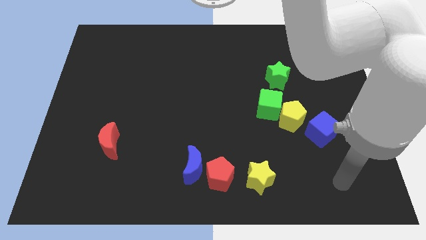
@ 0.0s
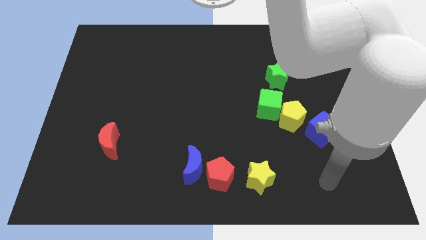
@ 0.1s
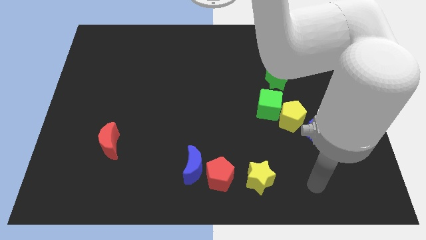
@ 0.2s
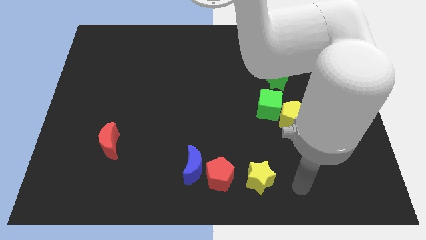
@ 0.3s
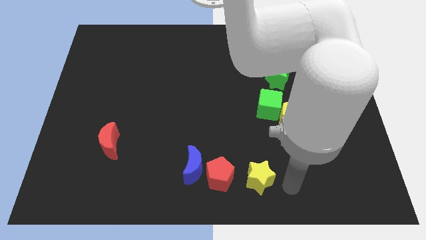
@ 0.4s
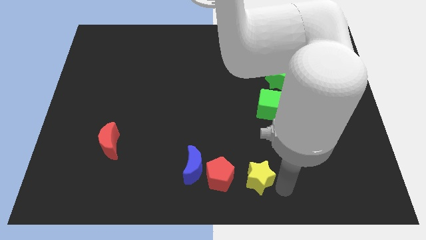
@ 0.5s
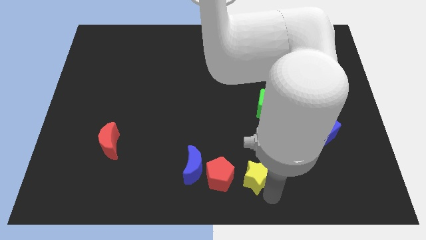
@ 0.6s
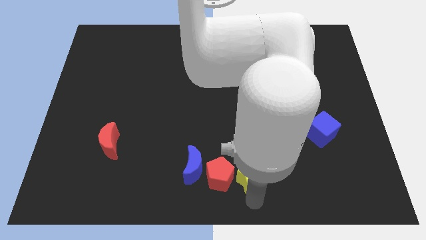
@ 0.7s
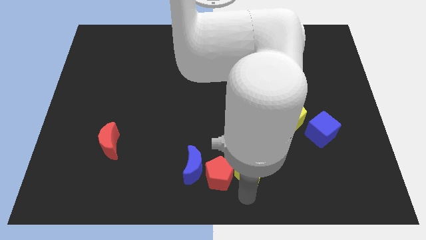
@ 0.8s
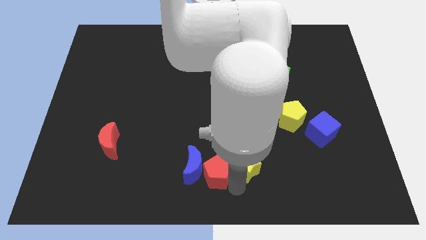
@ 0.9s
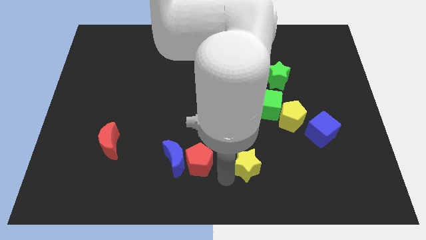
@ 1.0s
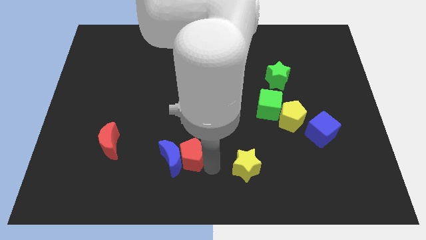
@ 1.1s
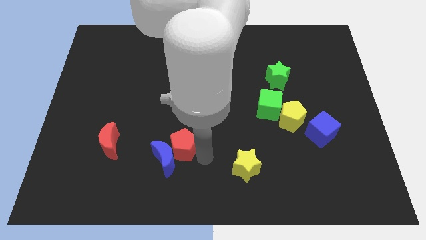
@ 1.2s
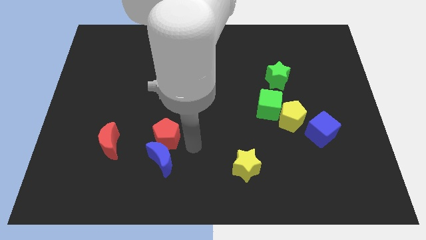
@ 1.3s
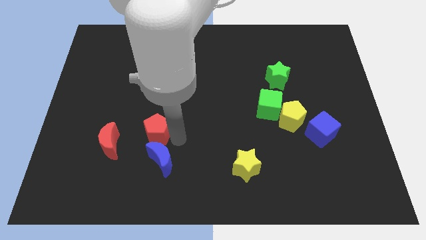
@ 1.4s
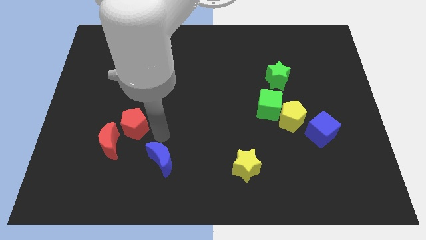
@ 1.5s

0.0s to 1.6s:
pull the blue moon apart from the red pentagon

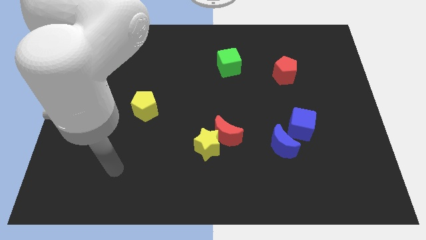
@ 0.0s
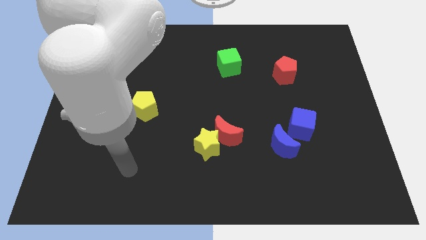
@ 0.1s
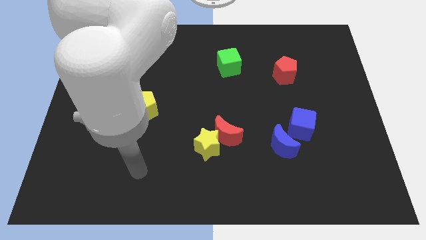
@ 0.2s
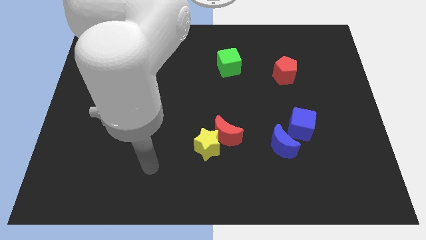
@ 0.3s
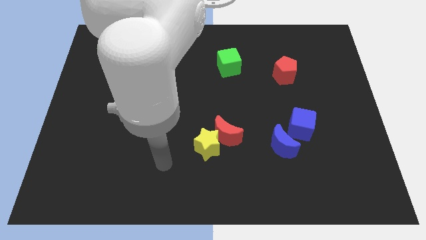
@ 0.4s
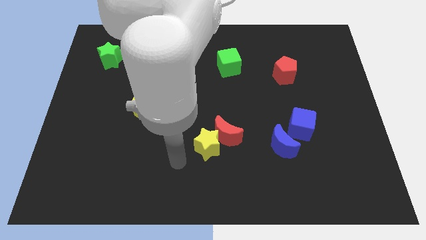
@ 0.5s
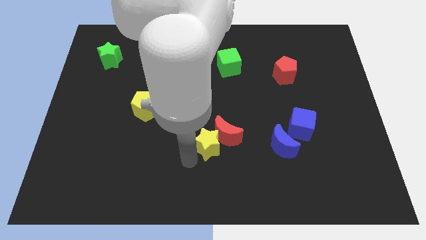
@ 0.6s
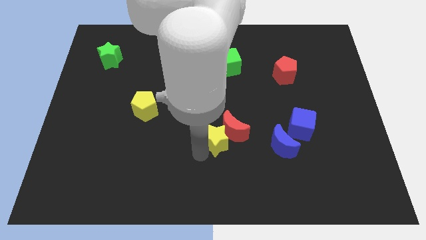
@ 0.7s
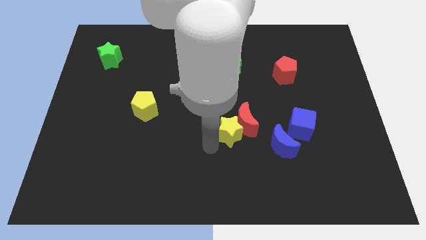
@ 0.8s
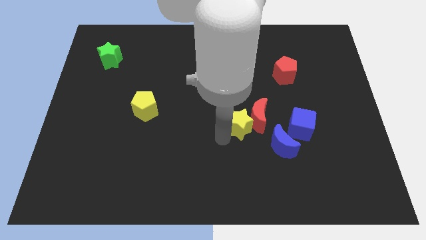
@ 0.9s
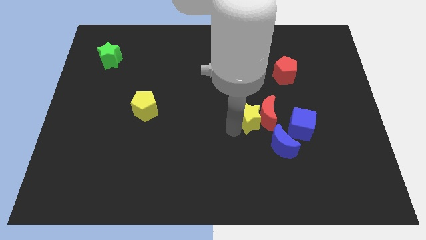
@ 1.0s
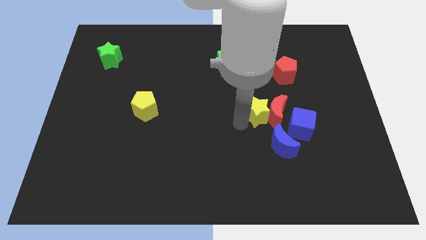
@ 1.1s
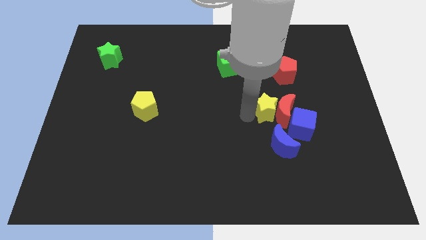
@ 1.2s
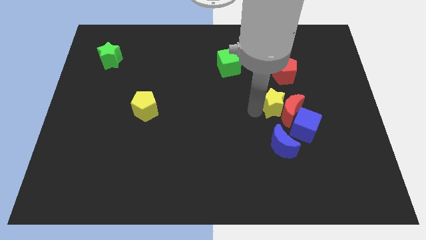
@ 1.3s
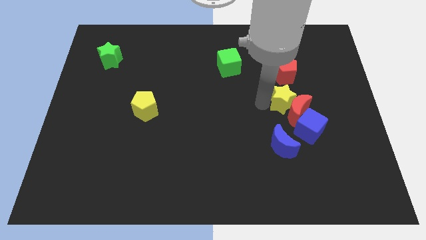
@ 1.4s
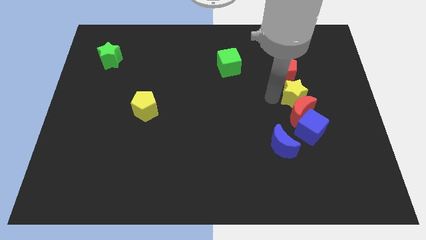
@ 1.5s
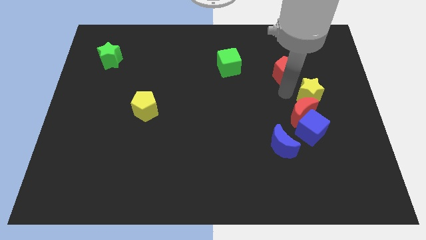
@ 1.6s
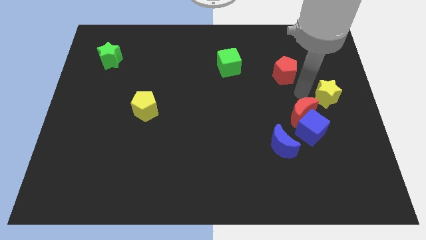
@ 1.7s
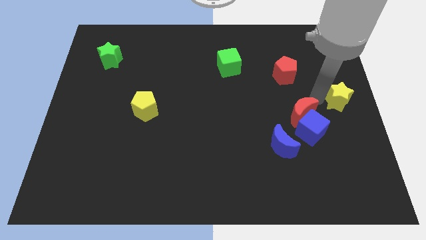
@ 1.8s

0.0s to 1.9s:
move the red moon away from the yellow star

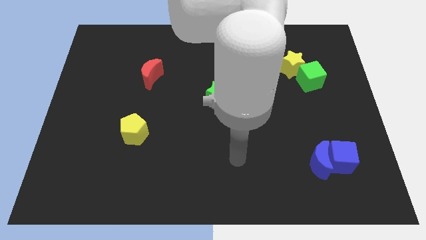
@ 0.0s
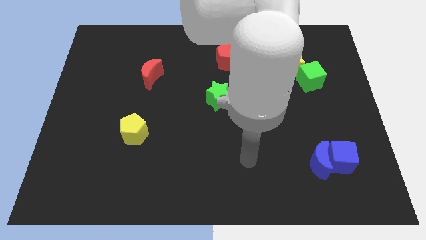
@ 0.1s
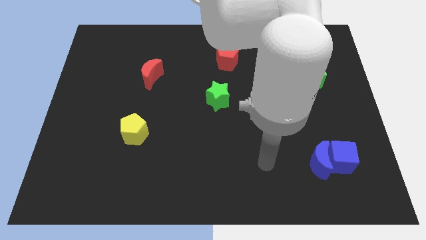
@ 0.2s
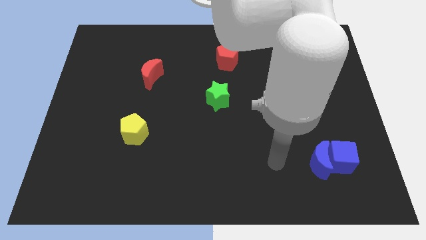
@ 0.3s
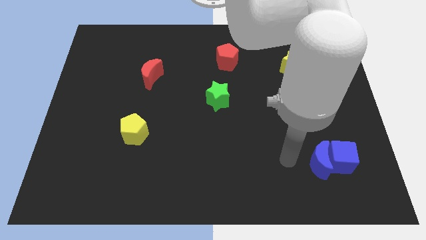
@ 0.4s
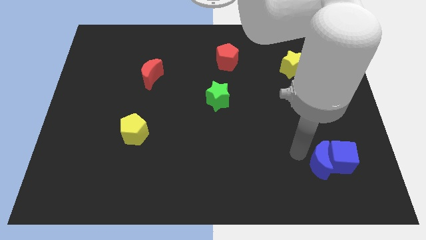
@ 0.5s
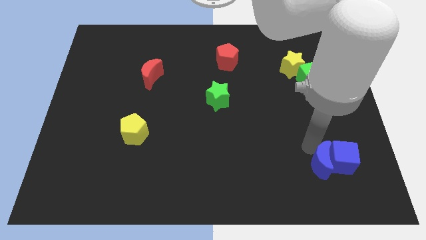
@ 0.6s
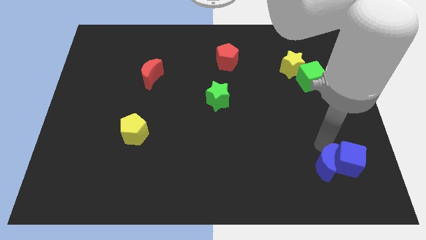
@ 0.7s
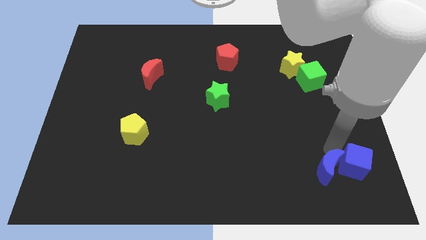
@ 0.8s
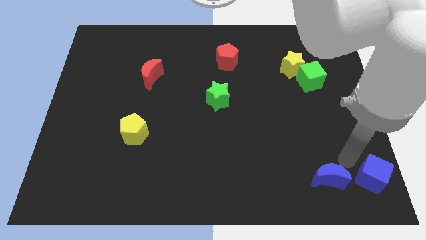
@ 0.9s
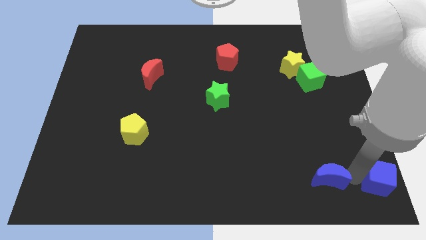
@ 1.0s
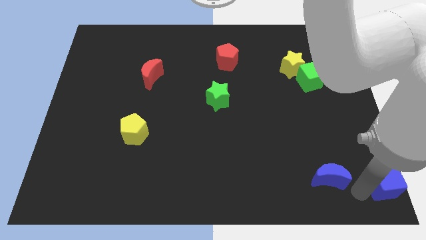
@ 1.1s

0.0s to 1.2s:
move the blue moon away from the blue cube

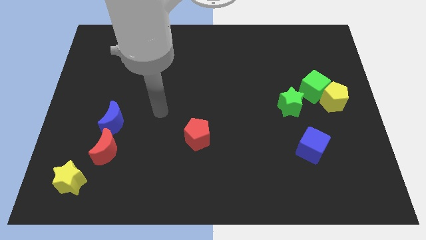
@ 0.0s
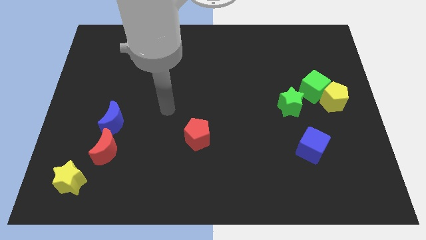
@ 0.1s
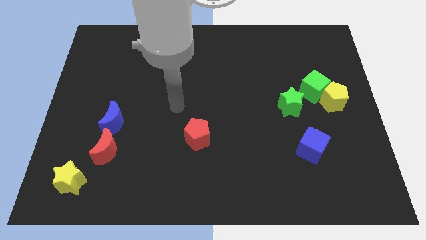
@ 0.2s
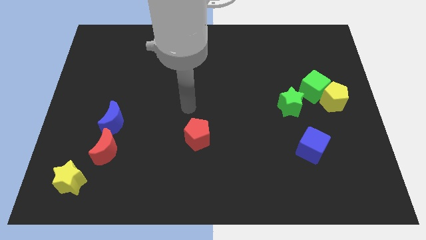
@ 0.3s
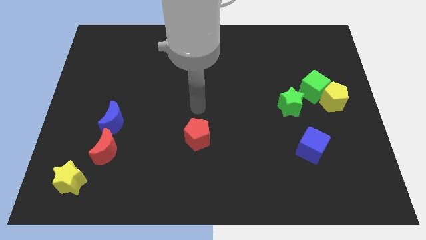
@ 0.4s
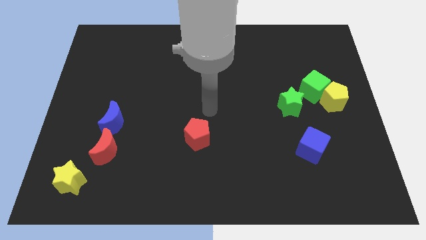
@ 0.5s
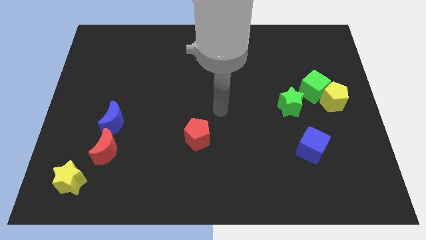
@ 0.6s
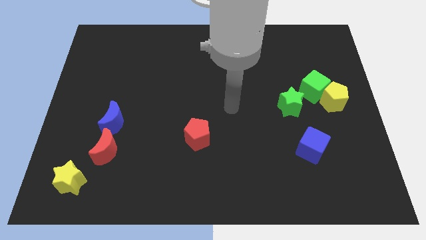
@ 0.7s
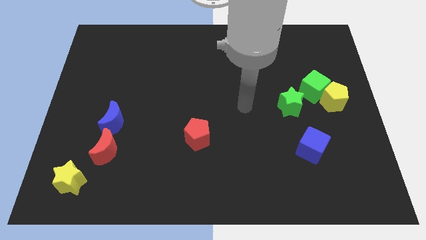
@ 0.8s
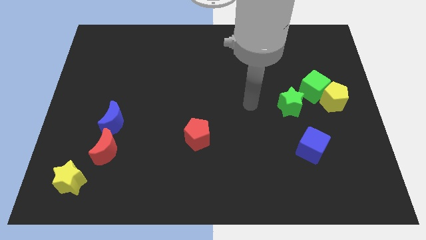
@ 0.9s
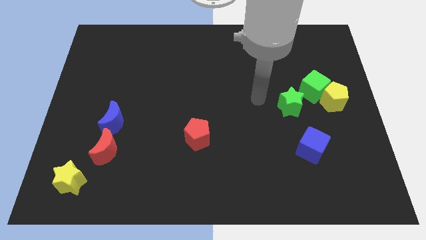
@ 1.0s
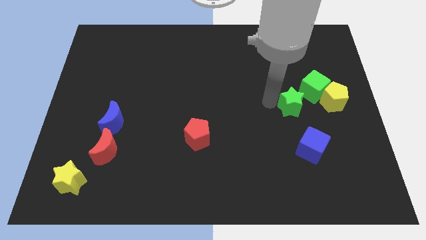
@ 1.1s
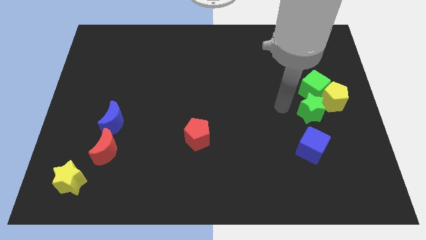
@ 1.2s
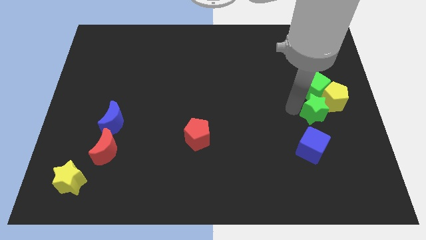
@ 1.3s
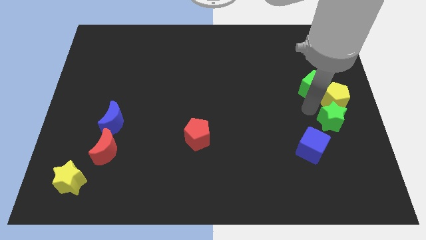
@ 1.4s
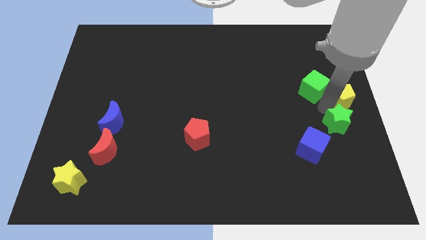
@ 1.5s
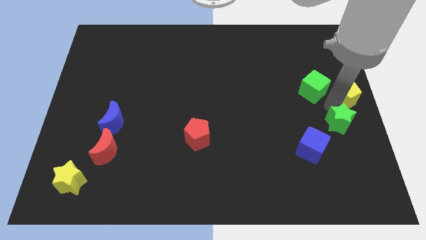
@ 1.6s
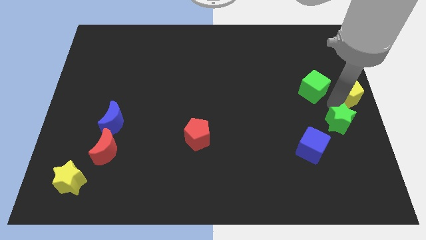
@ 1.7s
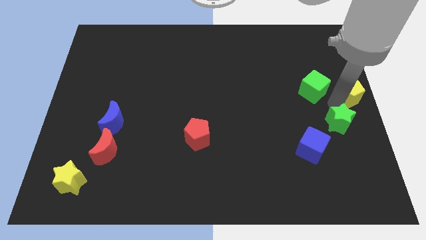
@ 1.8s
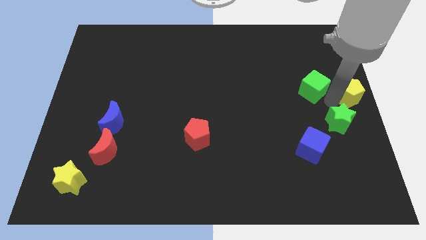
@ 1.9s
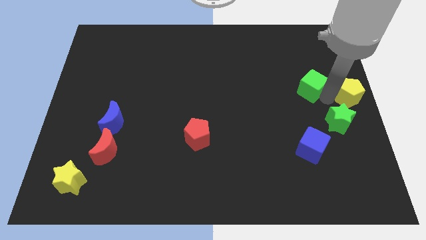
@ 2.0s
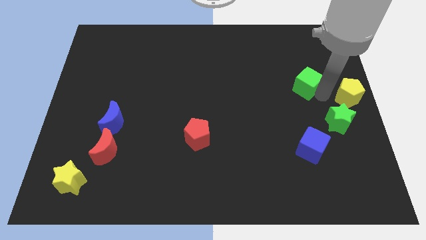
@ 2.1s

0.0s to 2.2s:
move the green cube away from the yellow pentagon and green star

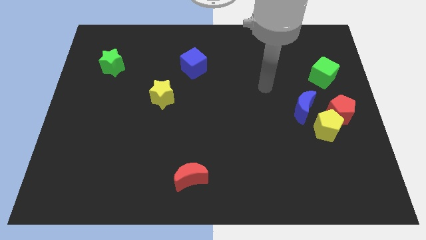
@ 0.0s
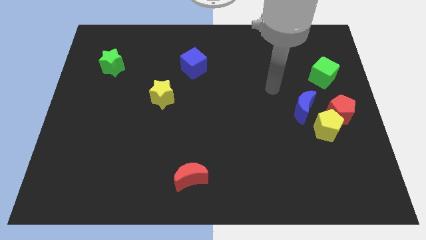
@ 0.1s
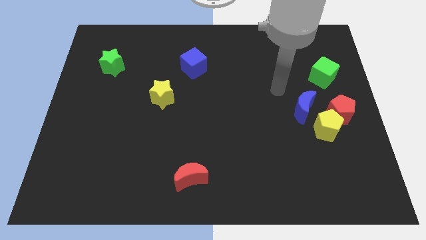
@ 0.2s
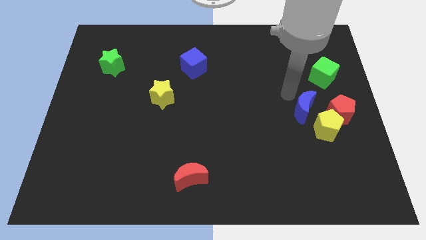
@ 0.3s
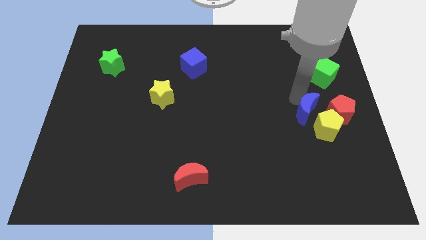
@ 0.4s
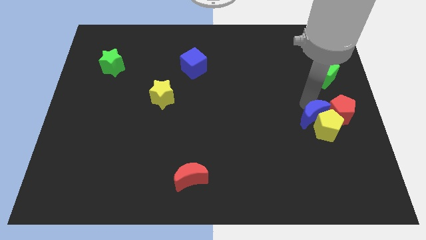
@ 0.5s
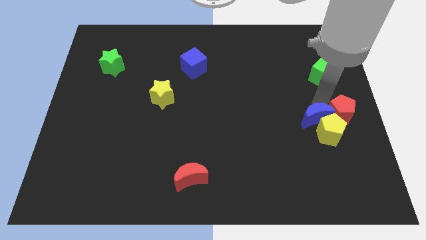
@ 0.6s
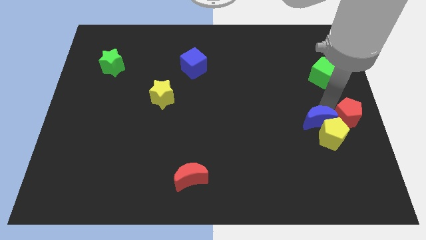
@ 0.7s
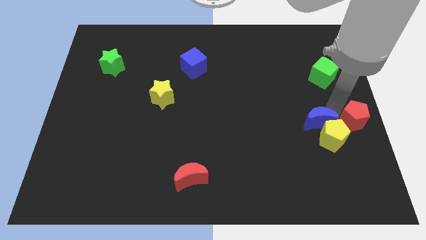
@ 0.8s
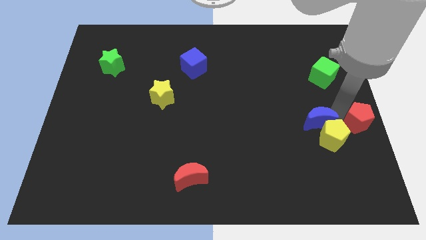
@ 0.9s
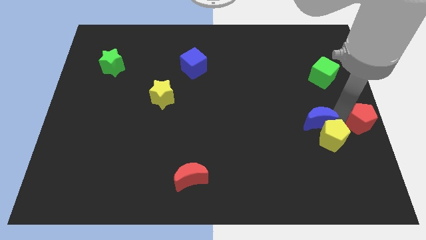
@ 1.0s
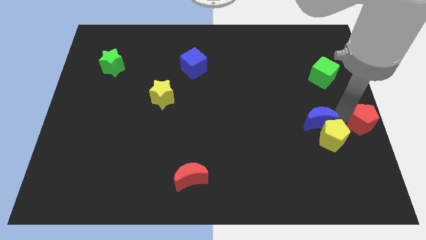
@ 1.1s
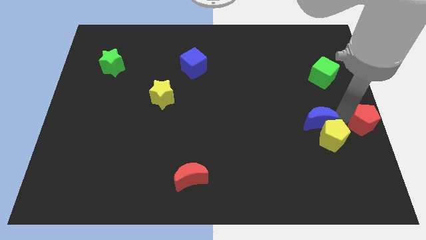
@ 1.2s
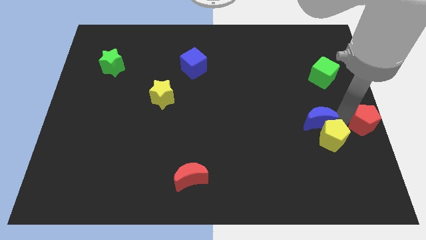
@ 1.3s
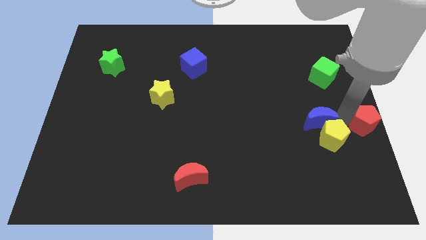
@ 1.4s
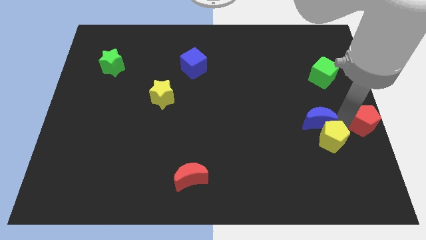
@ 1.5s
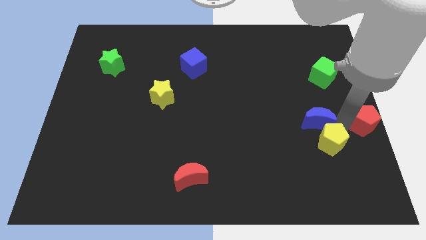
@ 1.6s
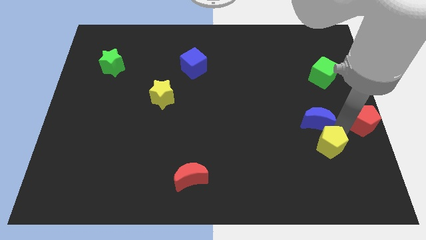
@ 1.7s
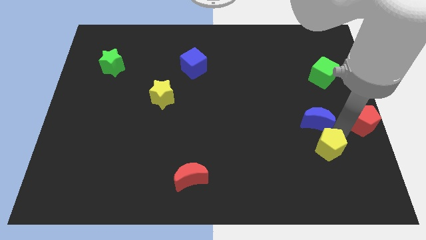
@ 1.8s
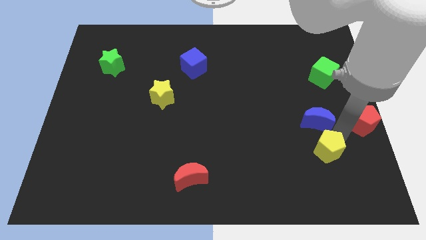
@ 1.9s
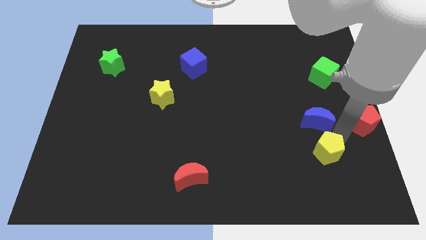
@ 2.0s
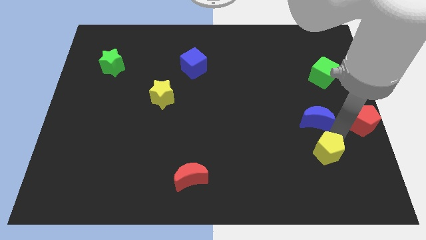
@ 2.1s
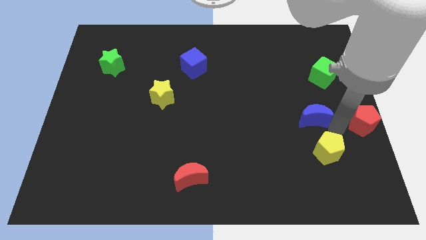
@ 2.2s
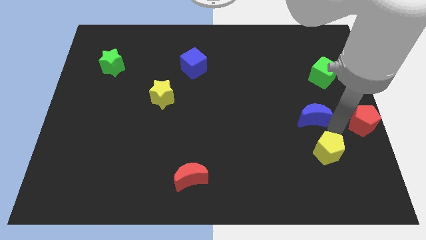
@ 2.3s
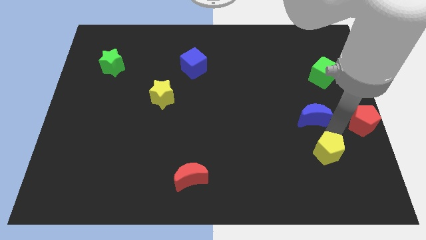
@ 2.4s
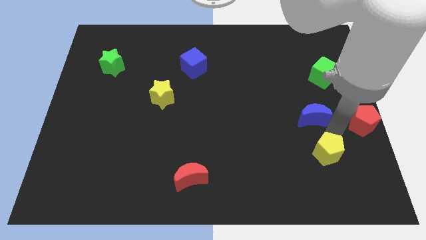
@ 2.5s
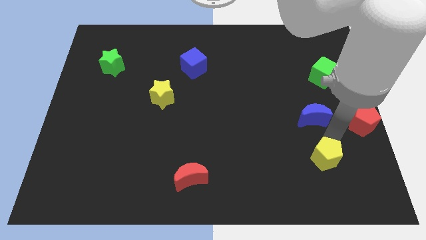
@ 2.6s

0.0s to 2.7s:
move the yellow pentagon away from the red pentagon and blue moon
